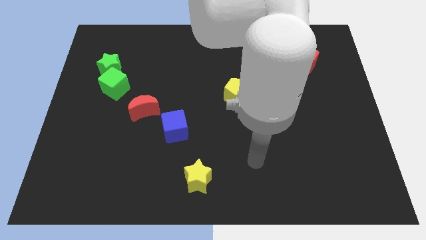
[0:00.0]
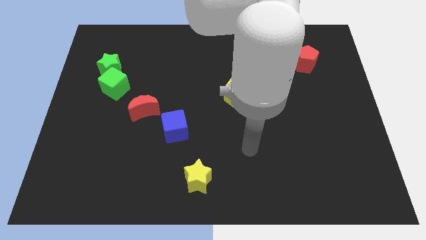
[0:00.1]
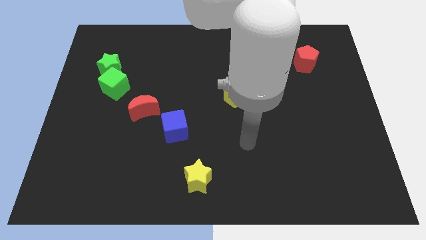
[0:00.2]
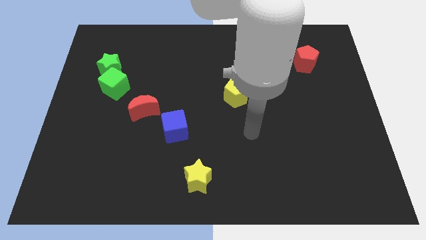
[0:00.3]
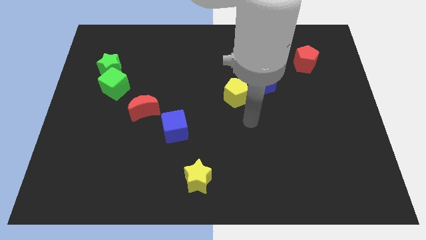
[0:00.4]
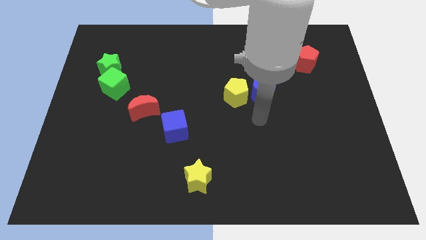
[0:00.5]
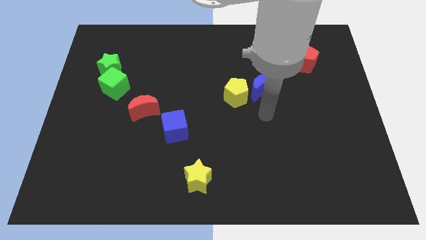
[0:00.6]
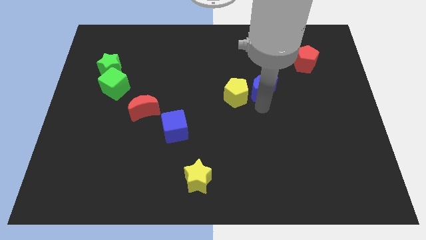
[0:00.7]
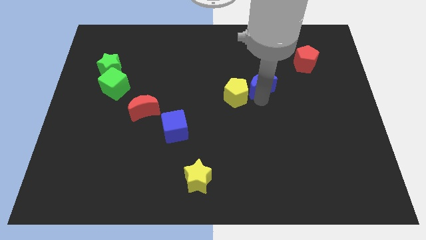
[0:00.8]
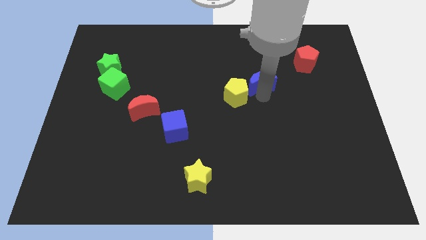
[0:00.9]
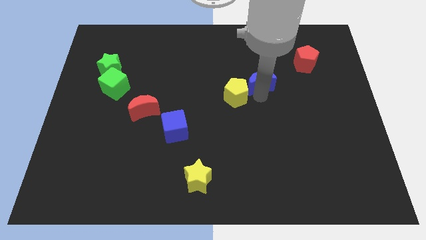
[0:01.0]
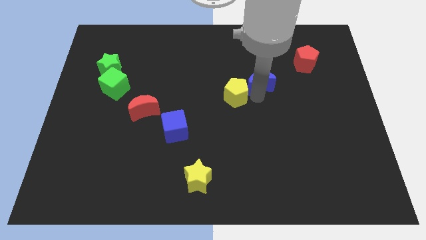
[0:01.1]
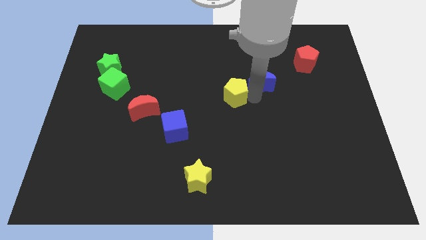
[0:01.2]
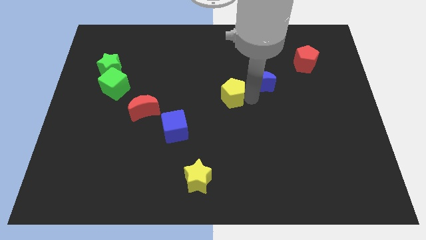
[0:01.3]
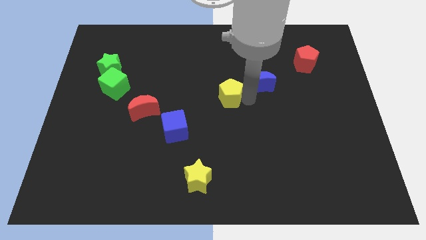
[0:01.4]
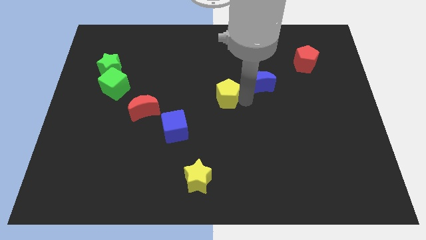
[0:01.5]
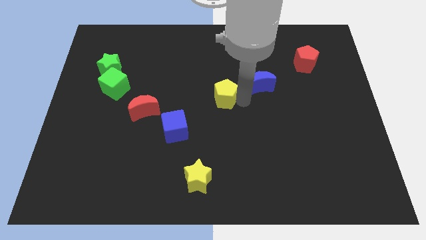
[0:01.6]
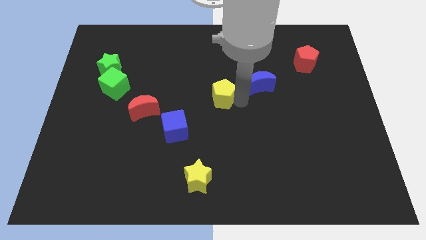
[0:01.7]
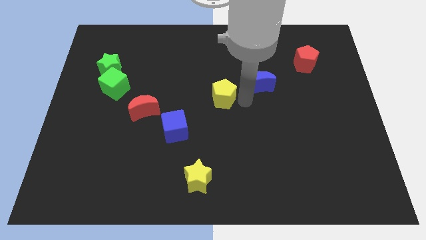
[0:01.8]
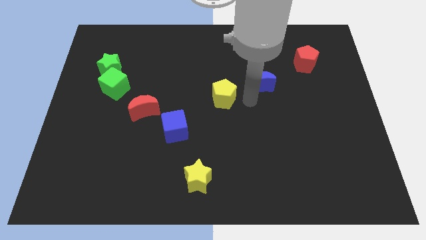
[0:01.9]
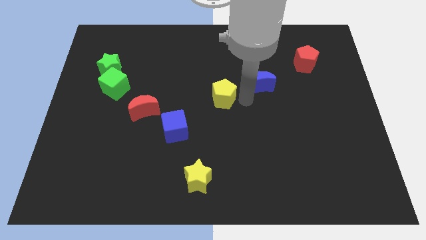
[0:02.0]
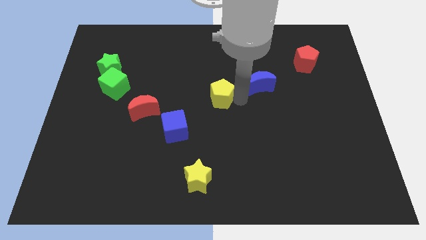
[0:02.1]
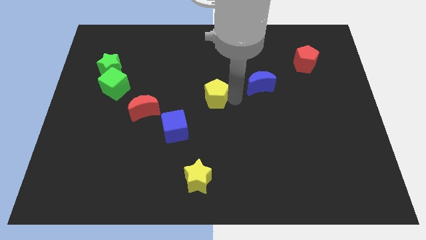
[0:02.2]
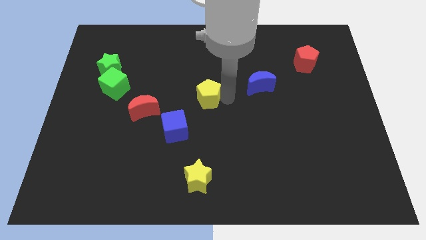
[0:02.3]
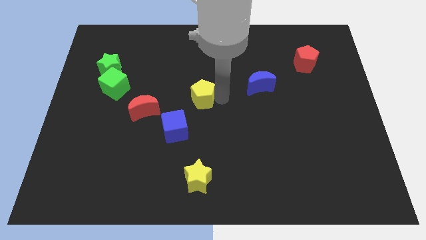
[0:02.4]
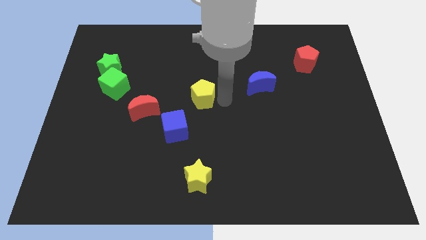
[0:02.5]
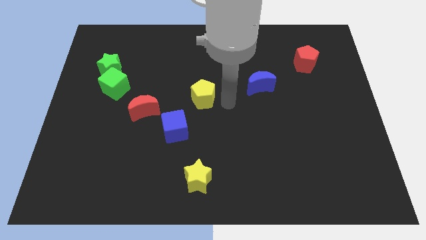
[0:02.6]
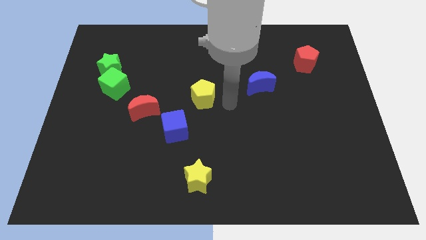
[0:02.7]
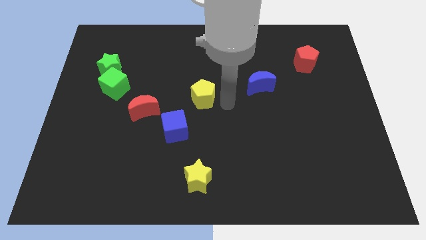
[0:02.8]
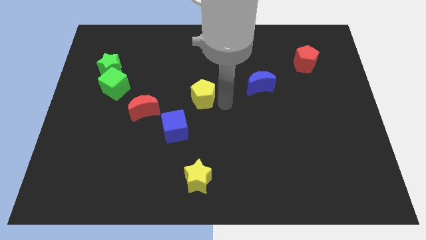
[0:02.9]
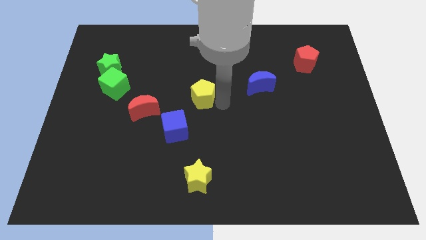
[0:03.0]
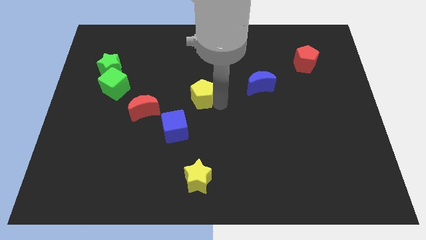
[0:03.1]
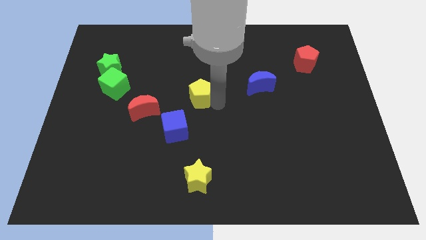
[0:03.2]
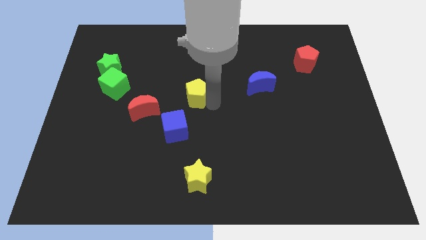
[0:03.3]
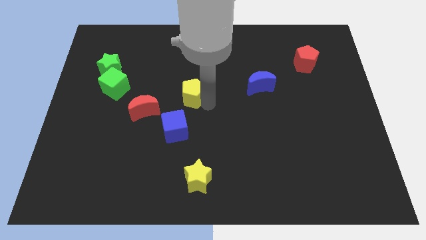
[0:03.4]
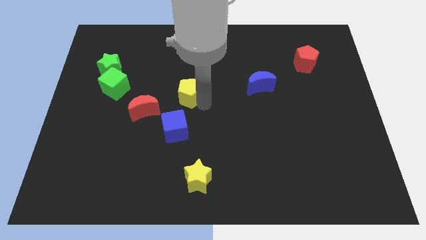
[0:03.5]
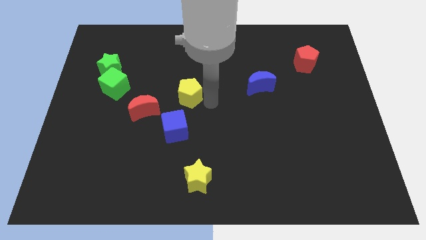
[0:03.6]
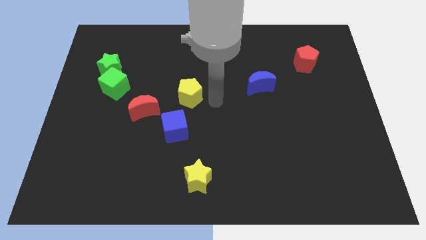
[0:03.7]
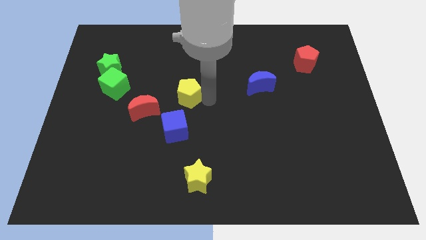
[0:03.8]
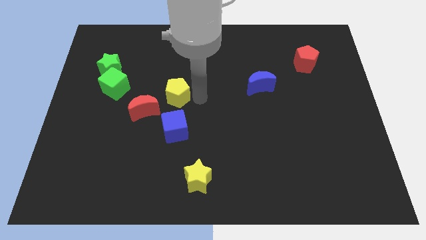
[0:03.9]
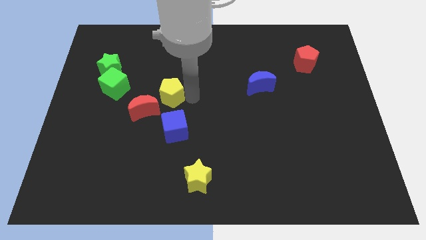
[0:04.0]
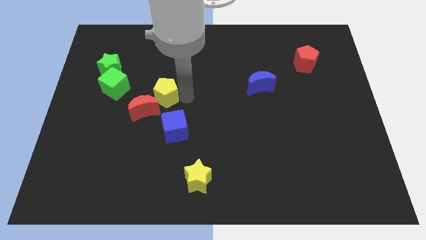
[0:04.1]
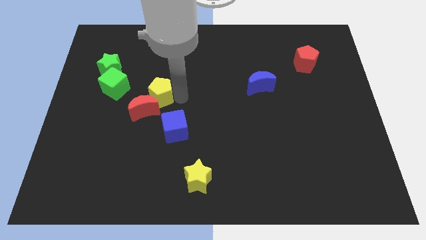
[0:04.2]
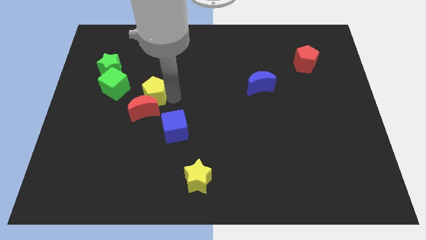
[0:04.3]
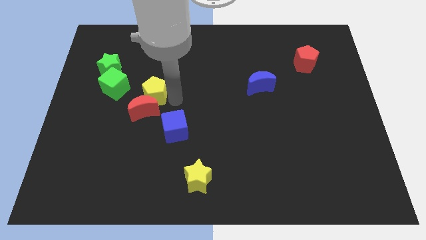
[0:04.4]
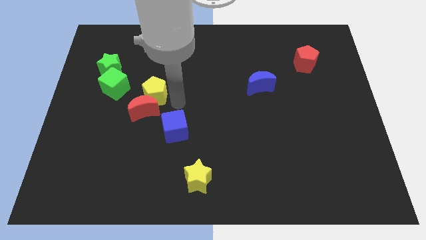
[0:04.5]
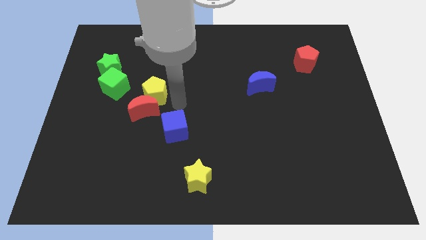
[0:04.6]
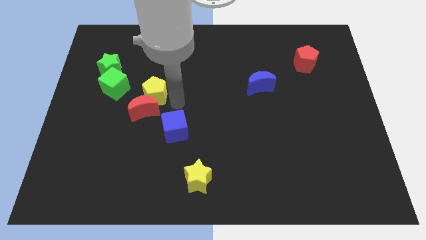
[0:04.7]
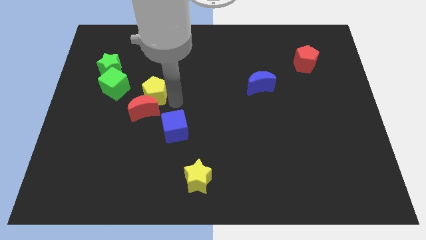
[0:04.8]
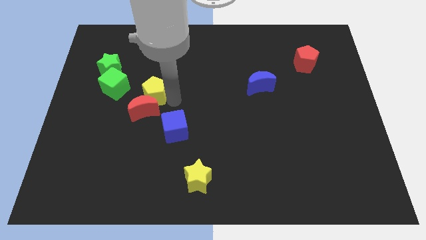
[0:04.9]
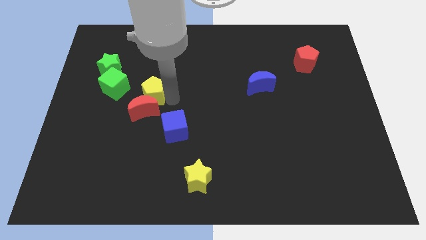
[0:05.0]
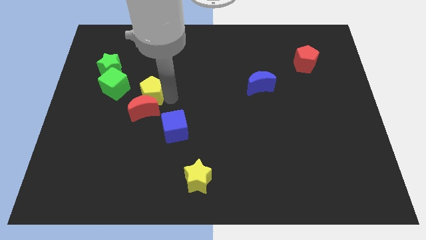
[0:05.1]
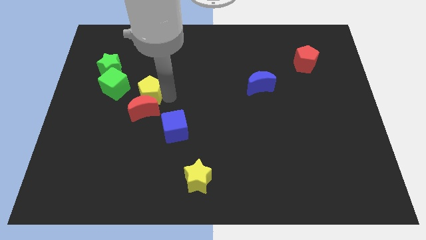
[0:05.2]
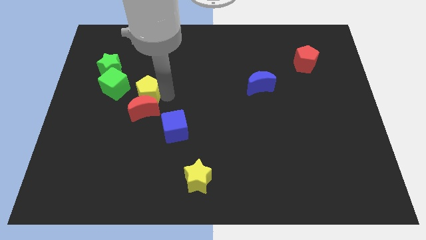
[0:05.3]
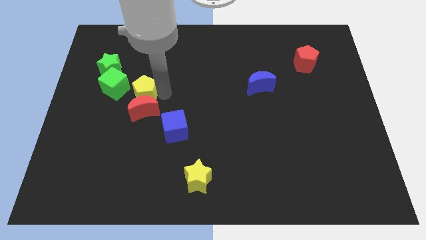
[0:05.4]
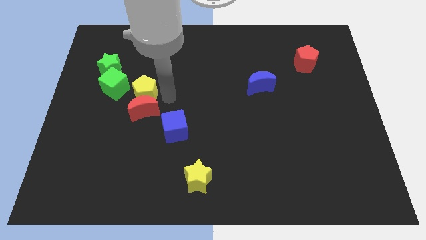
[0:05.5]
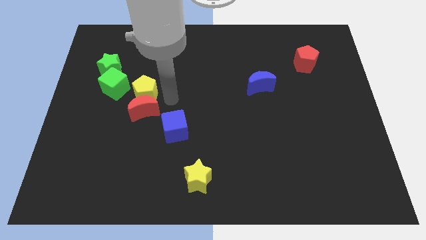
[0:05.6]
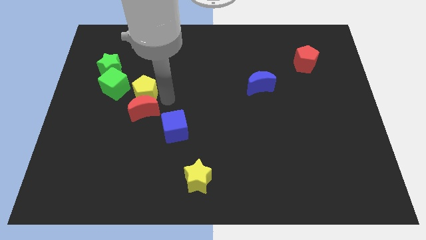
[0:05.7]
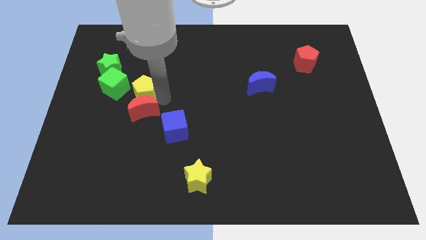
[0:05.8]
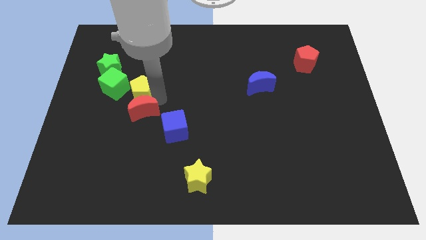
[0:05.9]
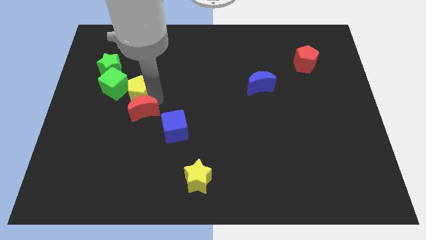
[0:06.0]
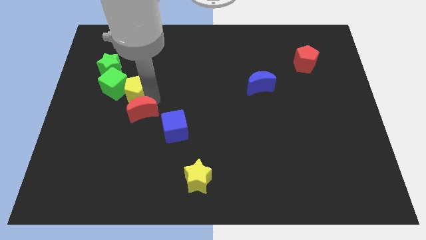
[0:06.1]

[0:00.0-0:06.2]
move the yellow pentagon towards the green cube

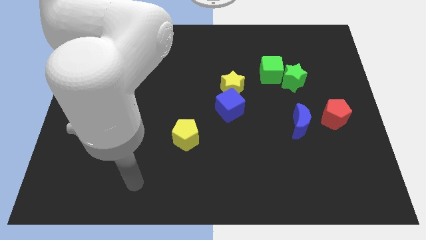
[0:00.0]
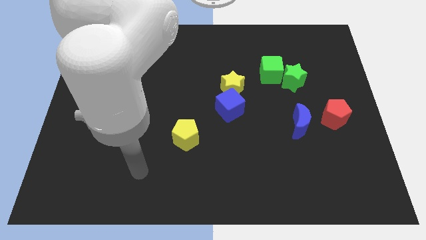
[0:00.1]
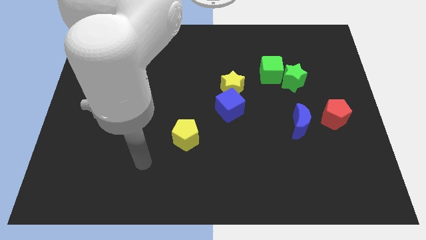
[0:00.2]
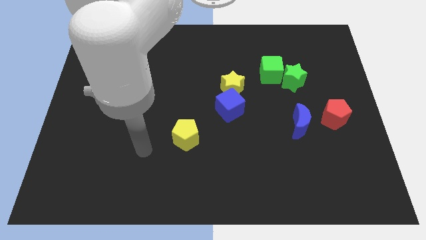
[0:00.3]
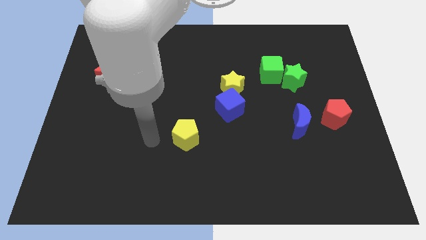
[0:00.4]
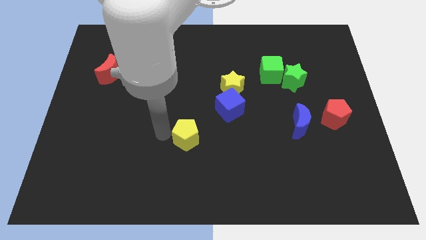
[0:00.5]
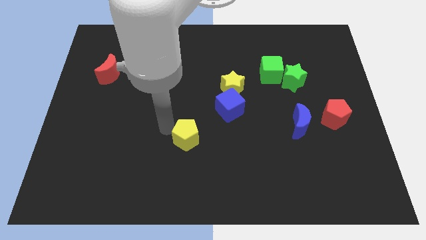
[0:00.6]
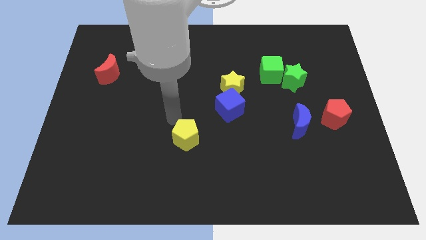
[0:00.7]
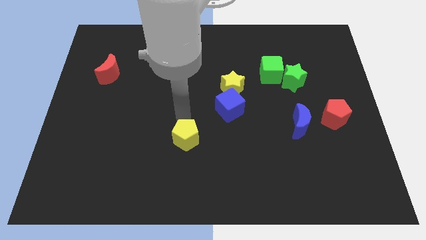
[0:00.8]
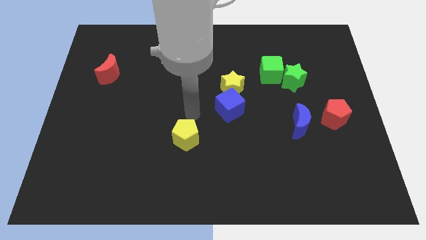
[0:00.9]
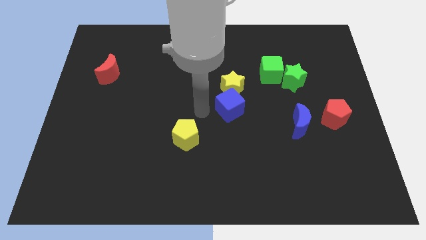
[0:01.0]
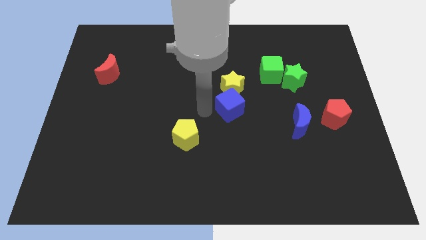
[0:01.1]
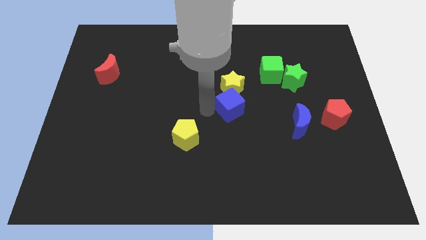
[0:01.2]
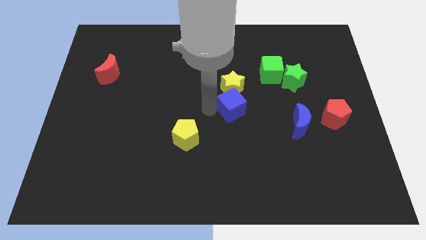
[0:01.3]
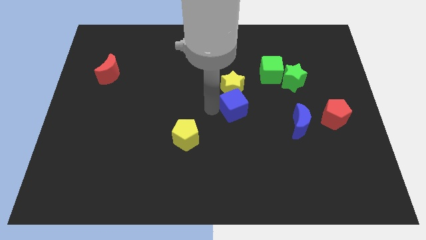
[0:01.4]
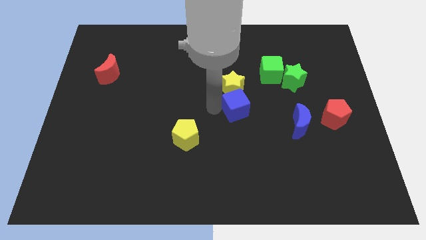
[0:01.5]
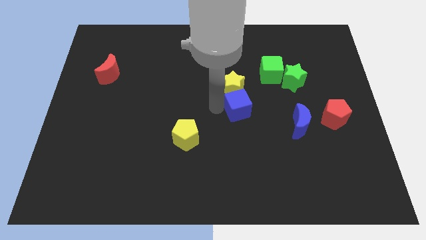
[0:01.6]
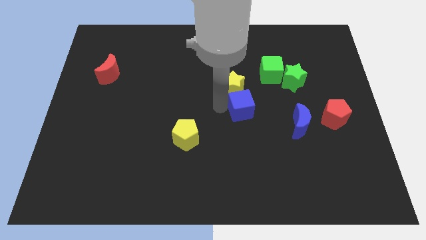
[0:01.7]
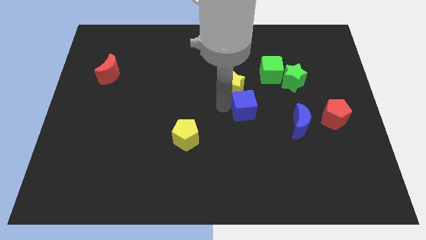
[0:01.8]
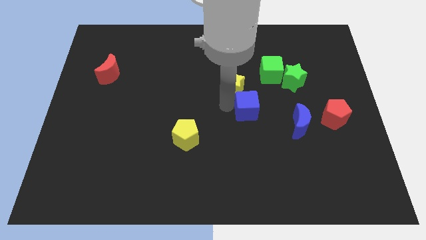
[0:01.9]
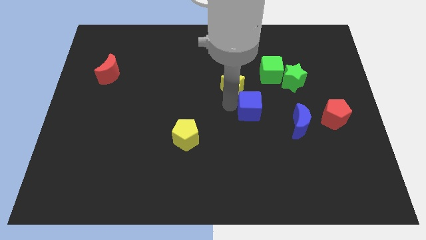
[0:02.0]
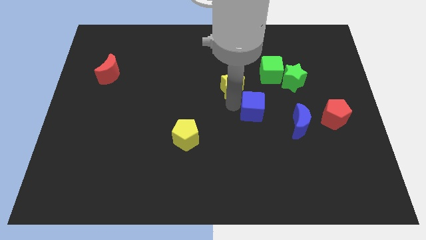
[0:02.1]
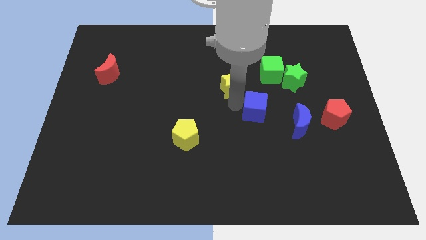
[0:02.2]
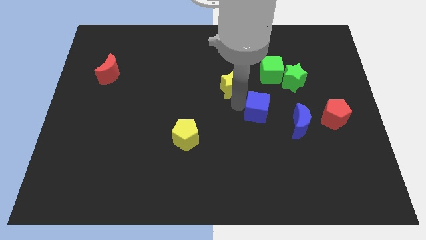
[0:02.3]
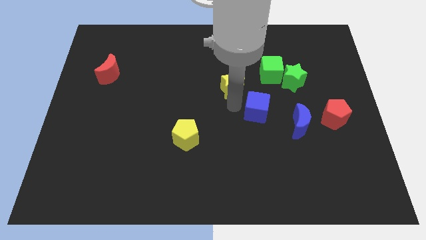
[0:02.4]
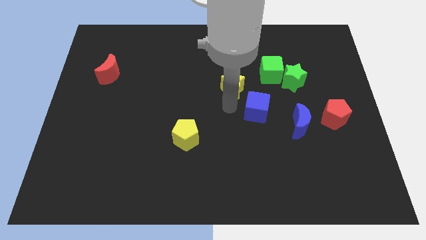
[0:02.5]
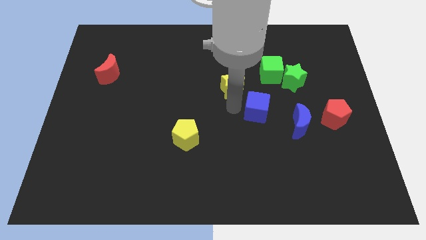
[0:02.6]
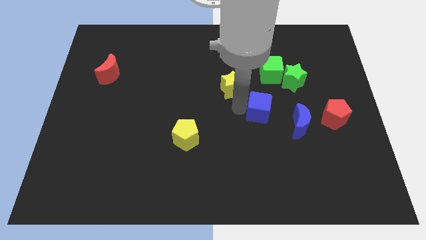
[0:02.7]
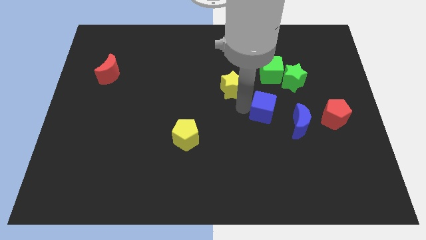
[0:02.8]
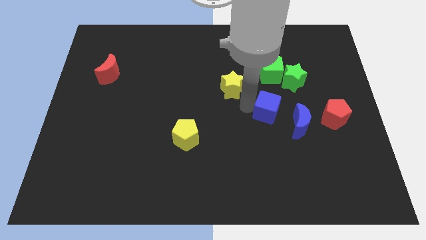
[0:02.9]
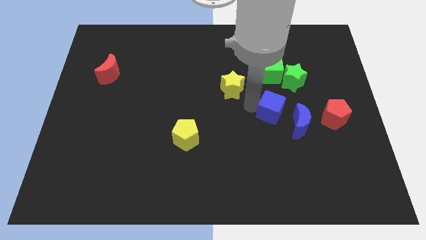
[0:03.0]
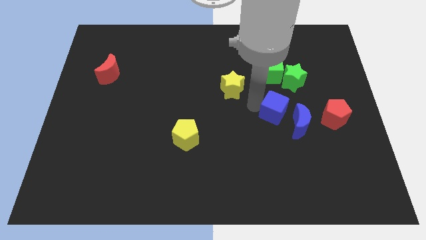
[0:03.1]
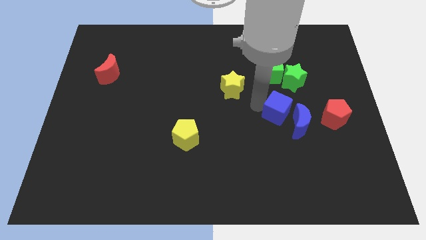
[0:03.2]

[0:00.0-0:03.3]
slide the blue cube next to the blue moon
